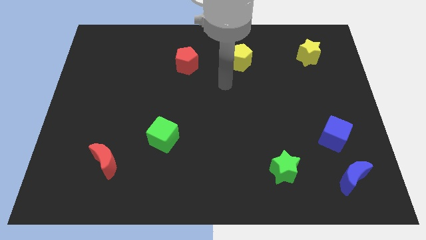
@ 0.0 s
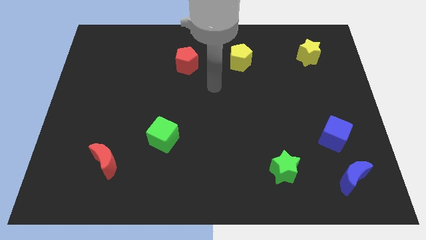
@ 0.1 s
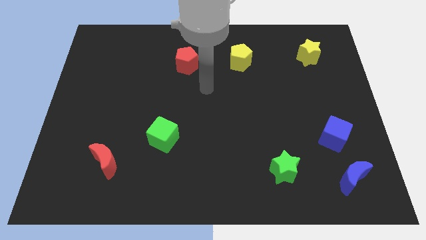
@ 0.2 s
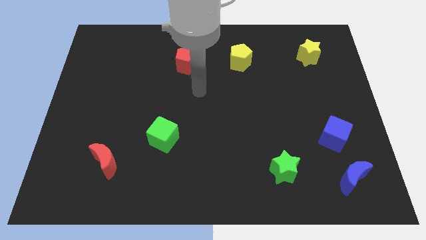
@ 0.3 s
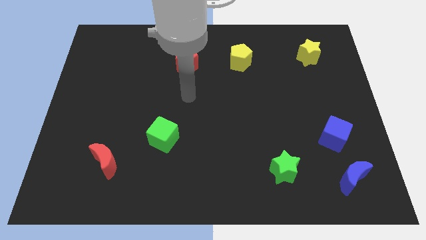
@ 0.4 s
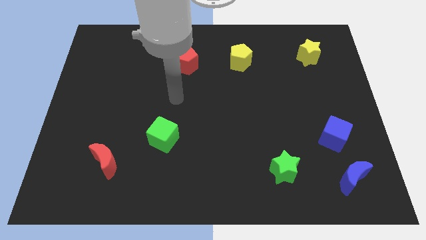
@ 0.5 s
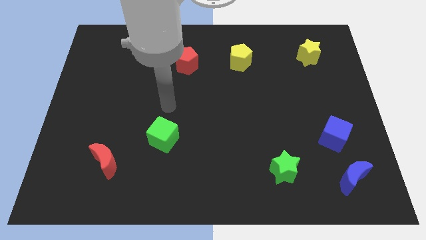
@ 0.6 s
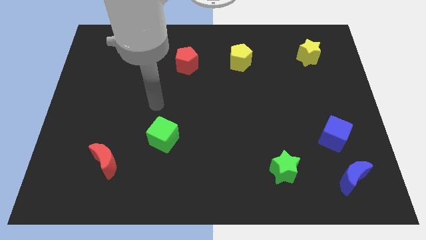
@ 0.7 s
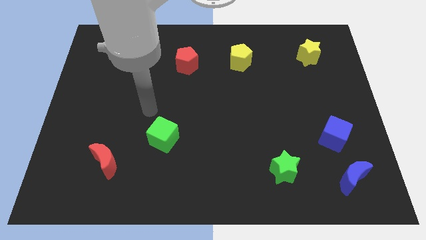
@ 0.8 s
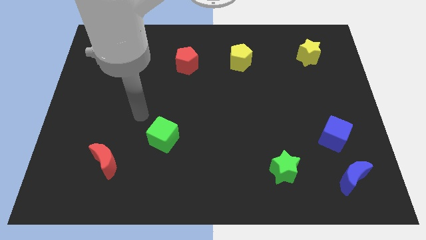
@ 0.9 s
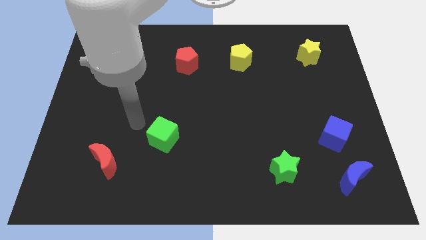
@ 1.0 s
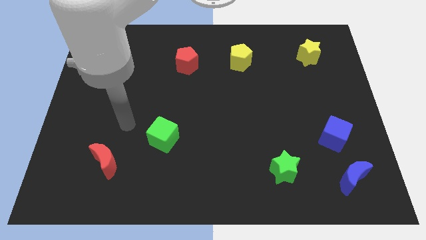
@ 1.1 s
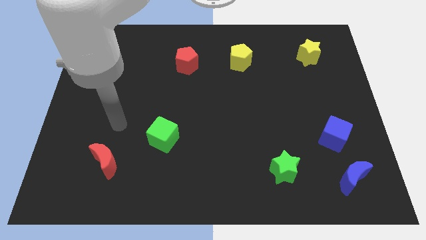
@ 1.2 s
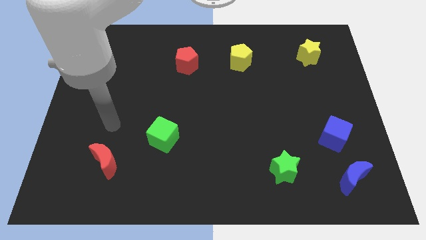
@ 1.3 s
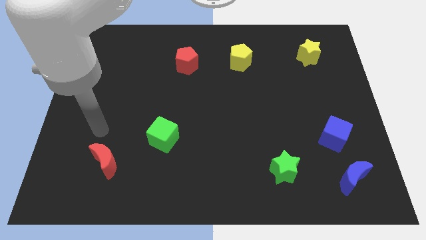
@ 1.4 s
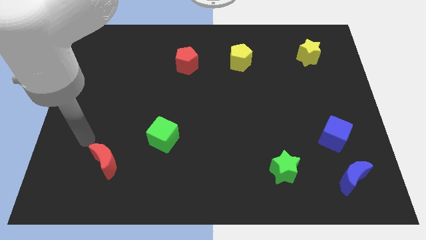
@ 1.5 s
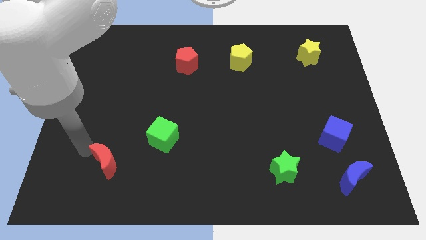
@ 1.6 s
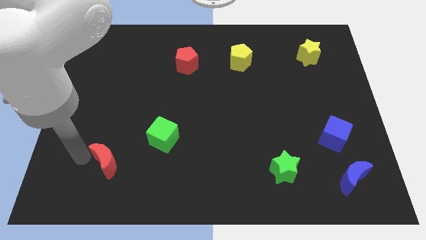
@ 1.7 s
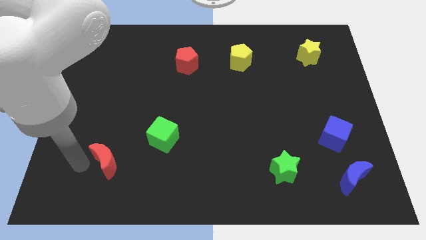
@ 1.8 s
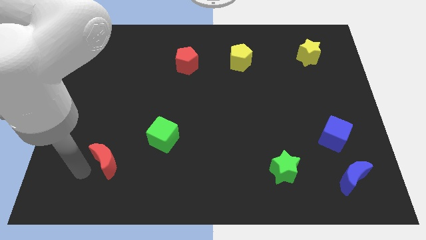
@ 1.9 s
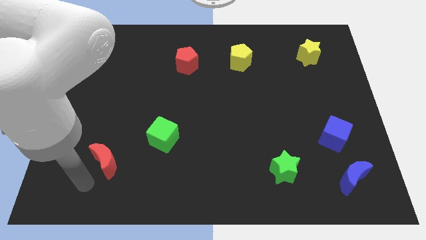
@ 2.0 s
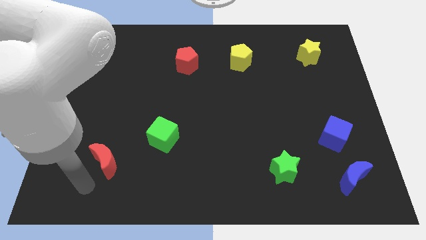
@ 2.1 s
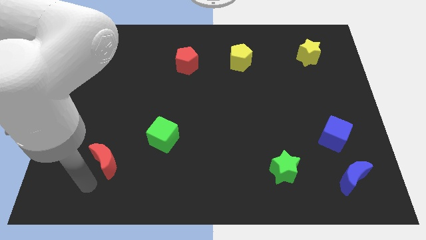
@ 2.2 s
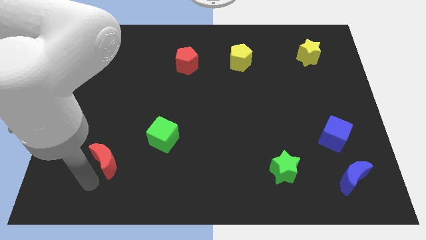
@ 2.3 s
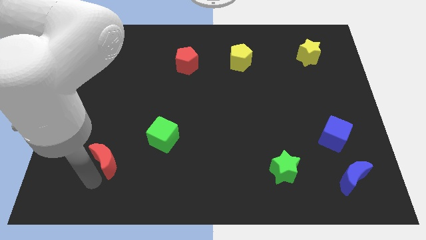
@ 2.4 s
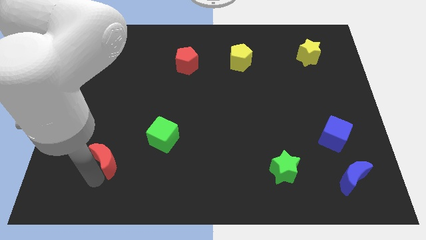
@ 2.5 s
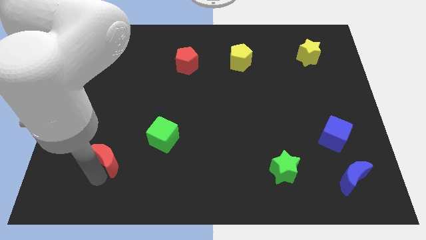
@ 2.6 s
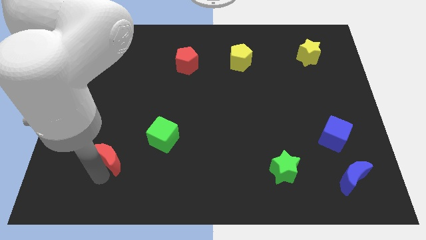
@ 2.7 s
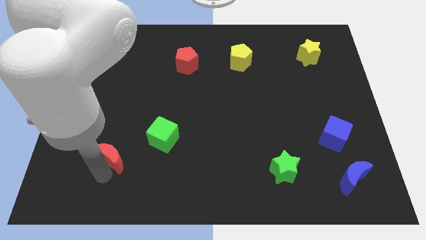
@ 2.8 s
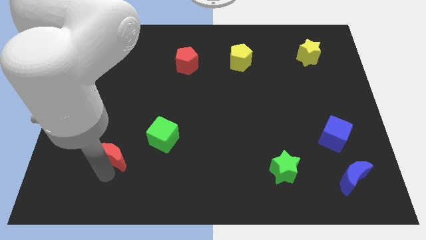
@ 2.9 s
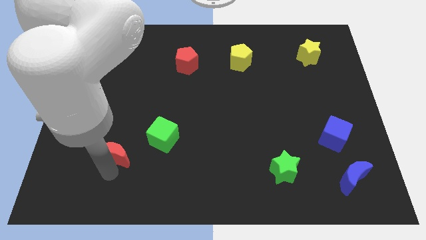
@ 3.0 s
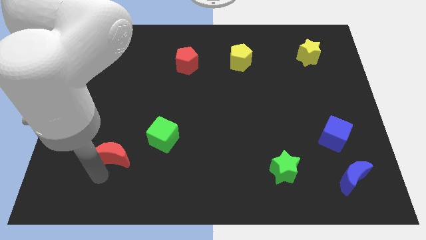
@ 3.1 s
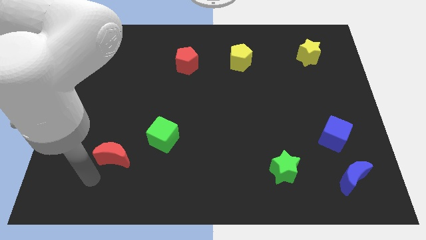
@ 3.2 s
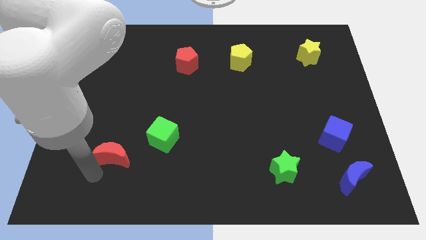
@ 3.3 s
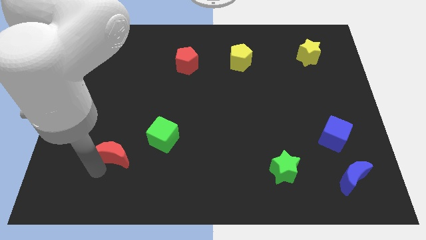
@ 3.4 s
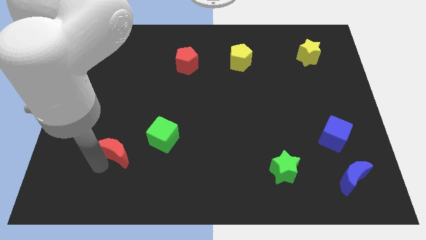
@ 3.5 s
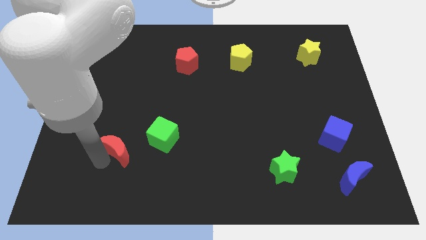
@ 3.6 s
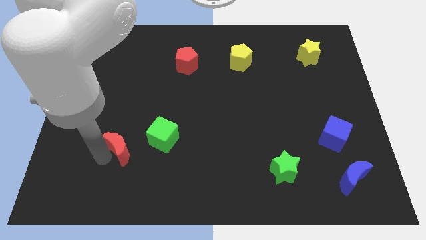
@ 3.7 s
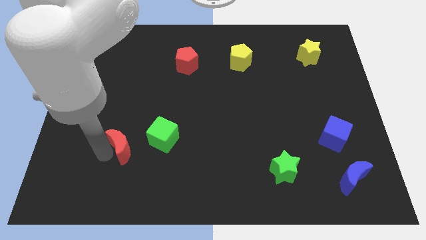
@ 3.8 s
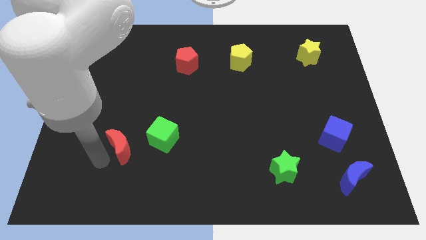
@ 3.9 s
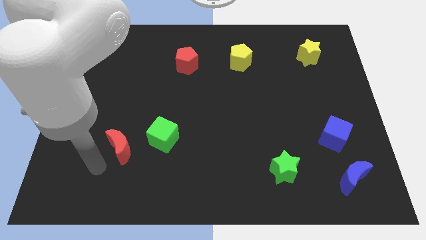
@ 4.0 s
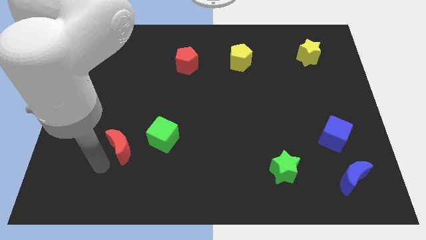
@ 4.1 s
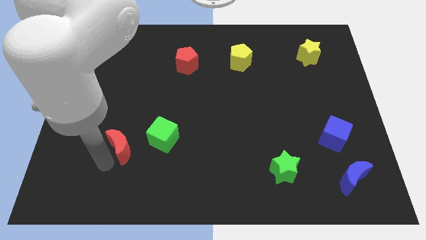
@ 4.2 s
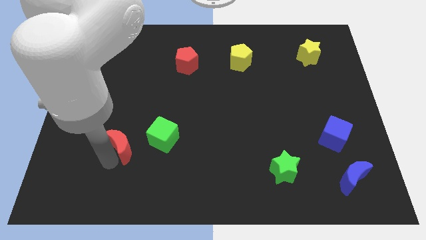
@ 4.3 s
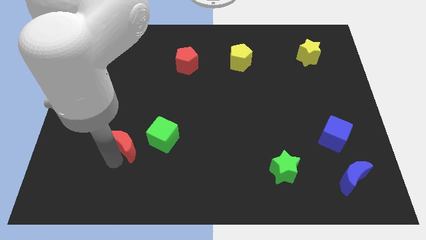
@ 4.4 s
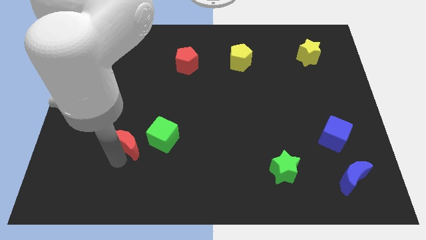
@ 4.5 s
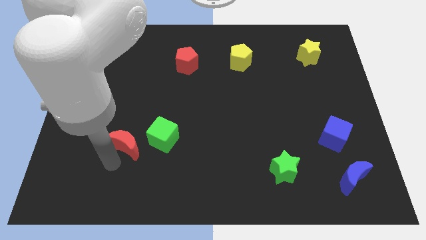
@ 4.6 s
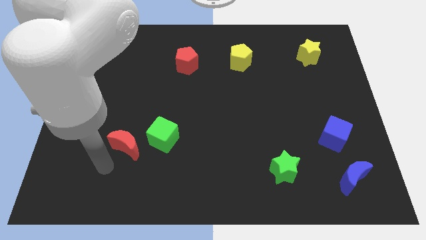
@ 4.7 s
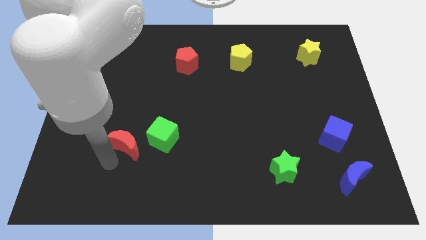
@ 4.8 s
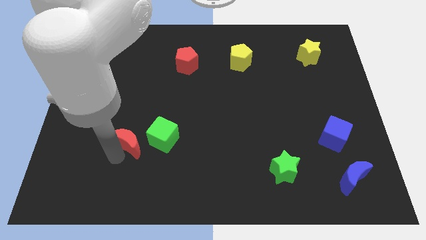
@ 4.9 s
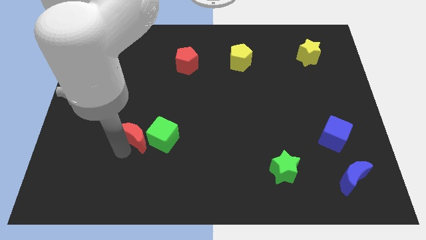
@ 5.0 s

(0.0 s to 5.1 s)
slightly slide the red moon up and right diagonally

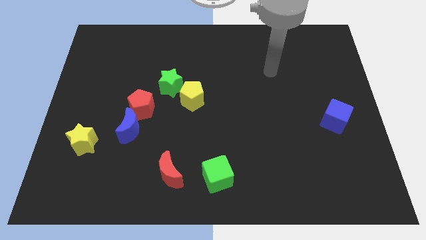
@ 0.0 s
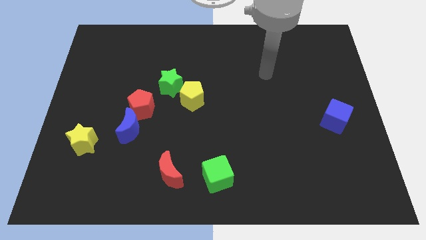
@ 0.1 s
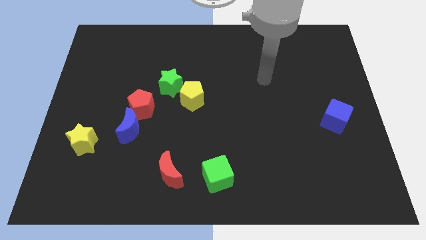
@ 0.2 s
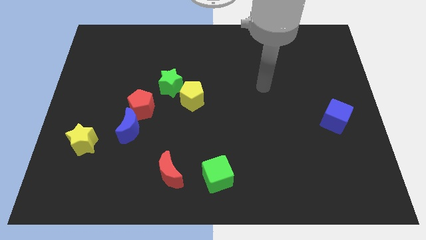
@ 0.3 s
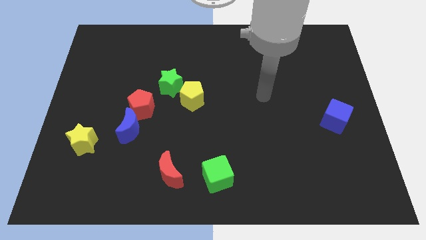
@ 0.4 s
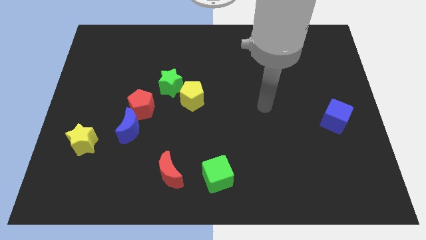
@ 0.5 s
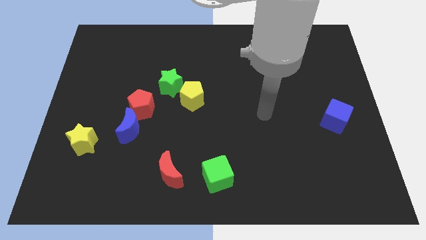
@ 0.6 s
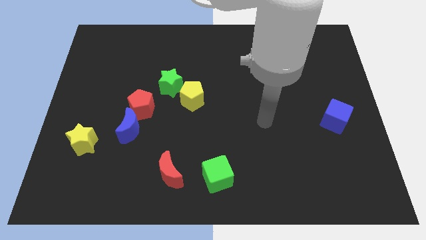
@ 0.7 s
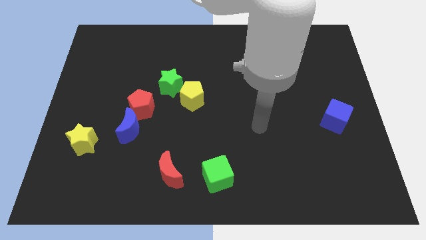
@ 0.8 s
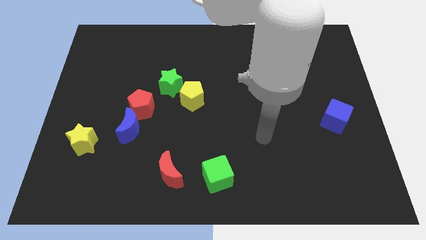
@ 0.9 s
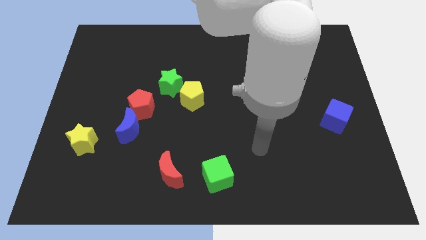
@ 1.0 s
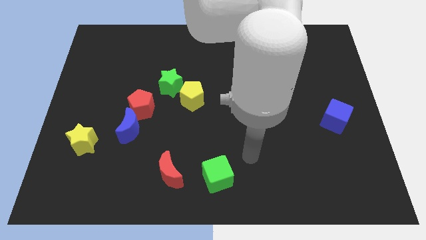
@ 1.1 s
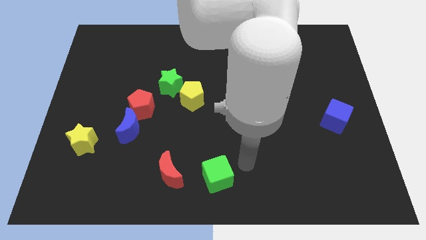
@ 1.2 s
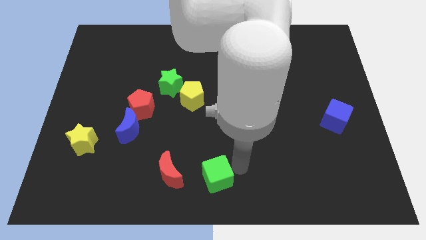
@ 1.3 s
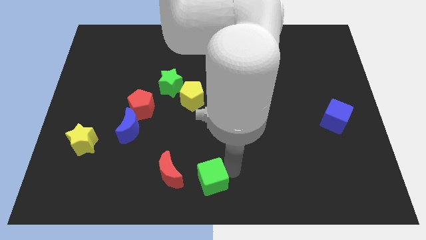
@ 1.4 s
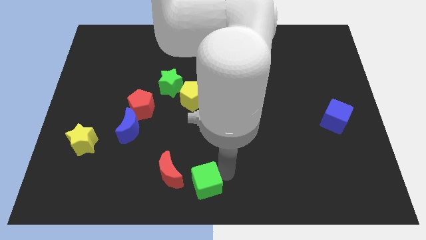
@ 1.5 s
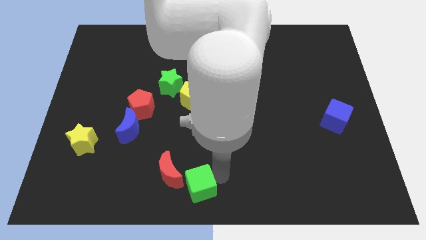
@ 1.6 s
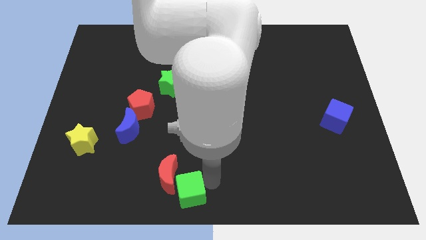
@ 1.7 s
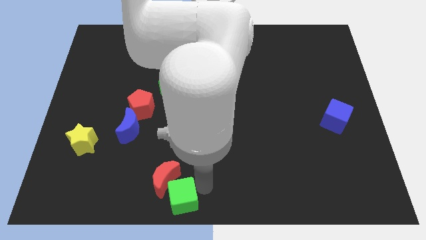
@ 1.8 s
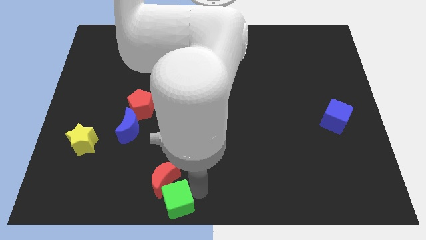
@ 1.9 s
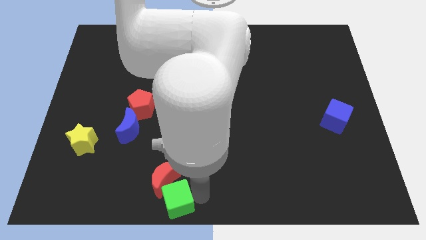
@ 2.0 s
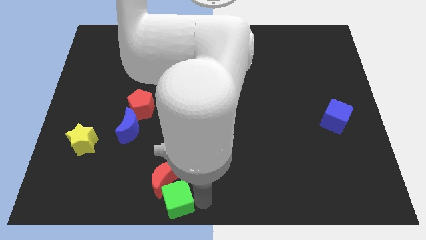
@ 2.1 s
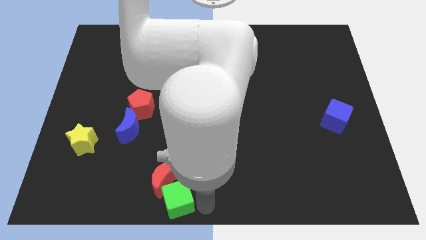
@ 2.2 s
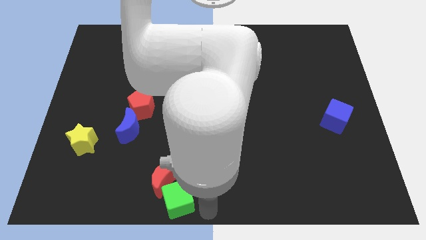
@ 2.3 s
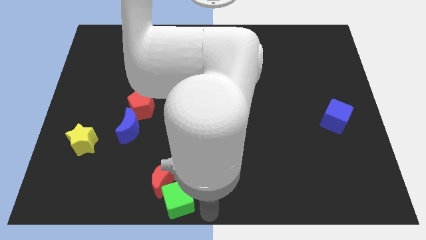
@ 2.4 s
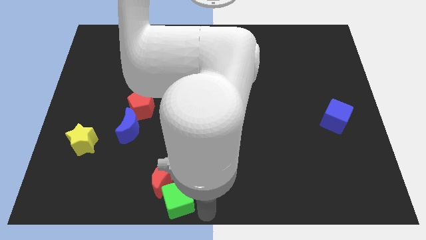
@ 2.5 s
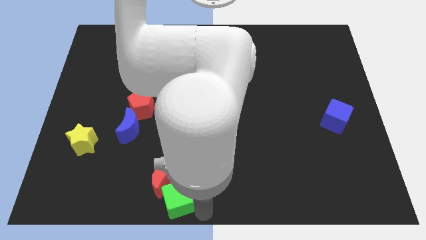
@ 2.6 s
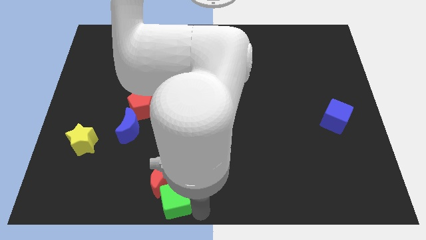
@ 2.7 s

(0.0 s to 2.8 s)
slide the green cube slightly to the left

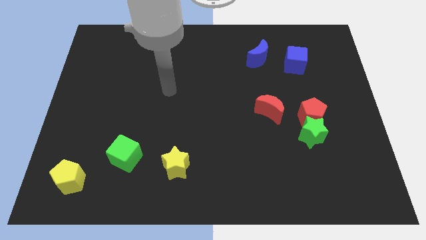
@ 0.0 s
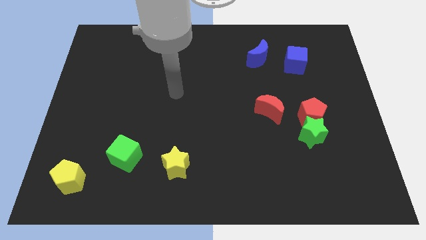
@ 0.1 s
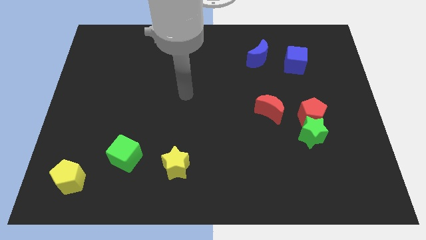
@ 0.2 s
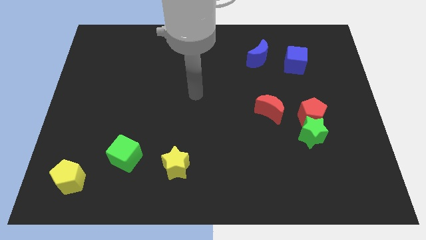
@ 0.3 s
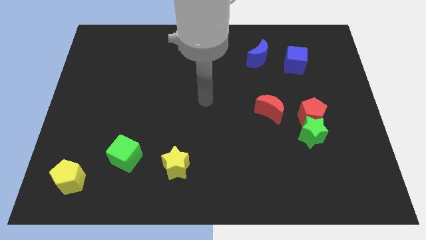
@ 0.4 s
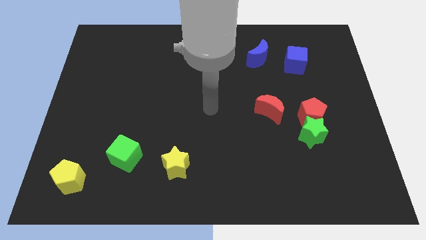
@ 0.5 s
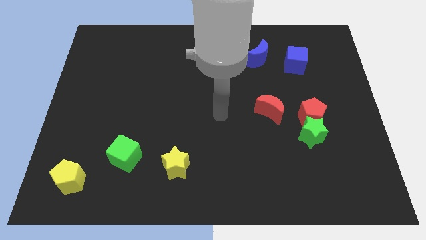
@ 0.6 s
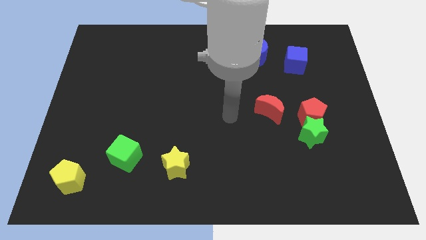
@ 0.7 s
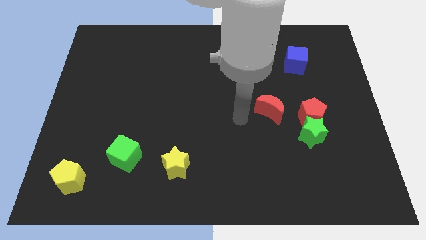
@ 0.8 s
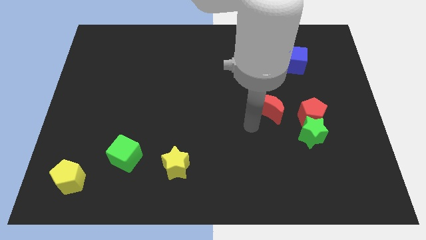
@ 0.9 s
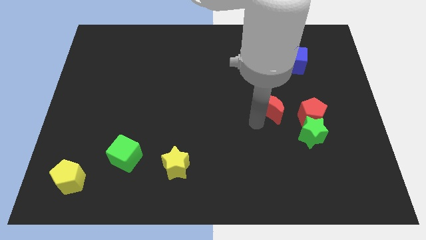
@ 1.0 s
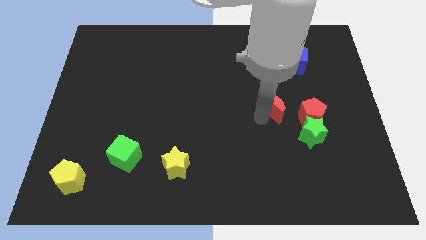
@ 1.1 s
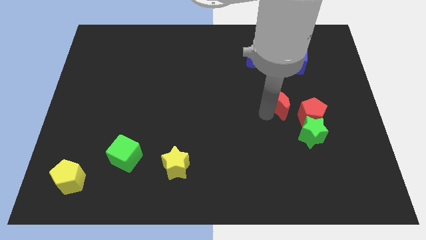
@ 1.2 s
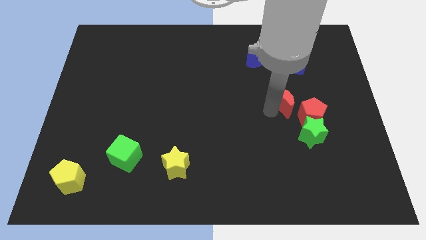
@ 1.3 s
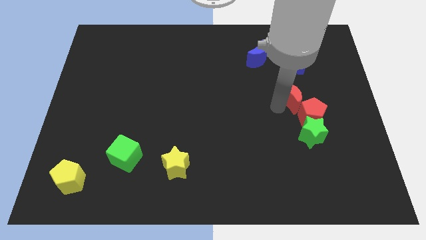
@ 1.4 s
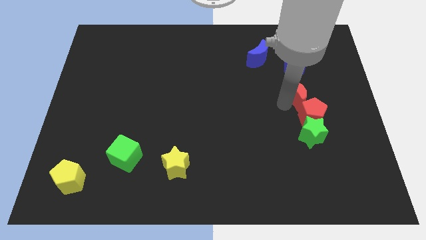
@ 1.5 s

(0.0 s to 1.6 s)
slide the red moon a little bit upwards and right diagonally
